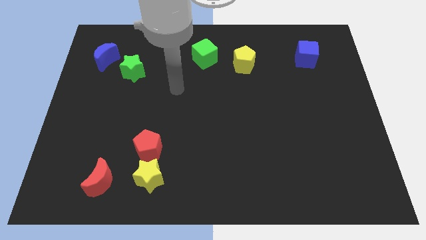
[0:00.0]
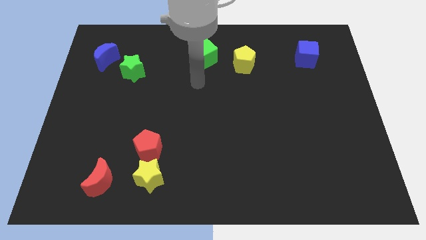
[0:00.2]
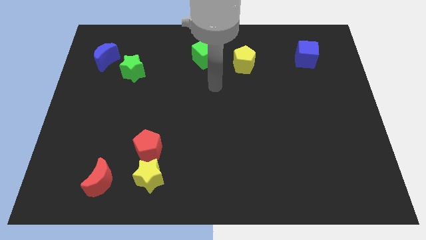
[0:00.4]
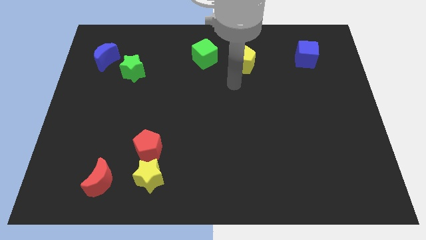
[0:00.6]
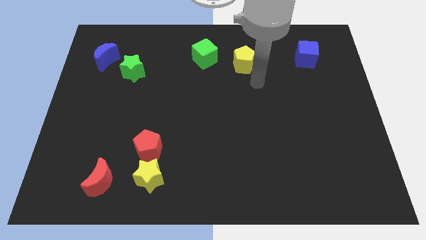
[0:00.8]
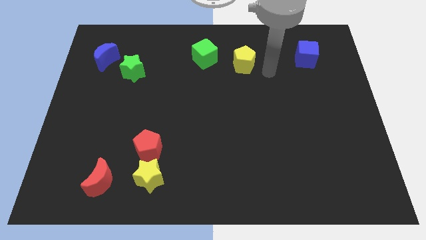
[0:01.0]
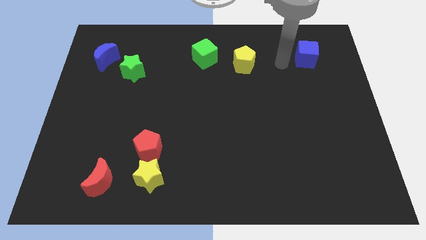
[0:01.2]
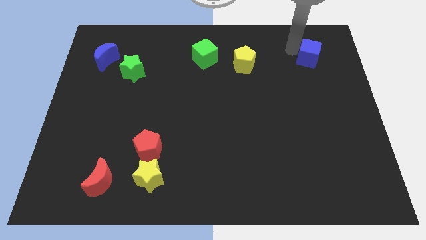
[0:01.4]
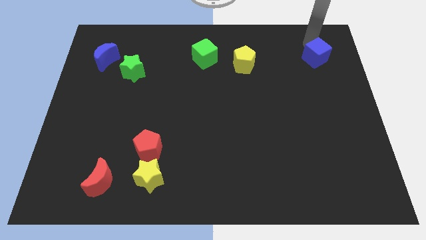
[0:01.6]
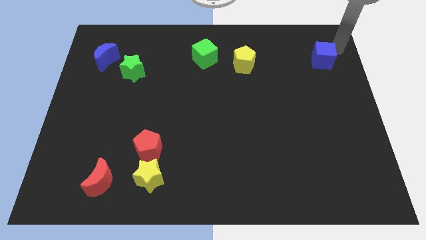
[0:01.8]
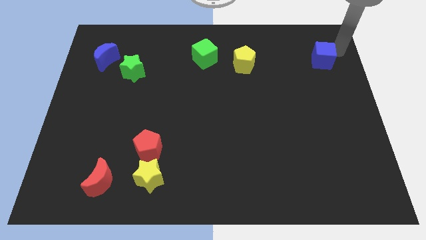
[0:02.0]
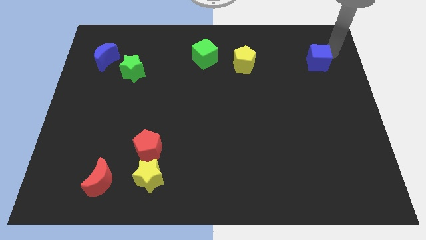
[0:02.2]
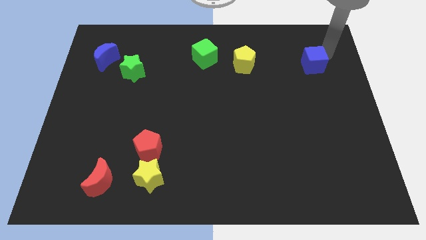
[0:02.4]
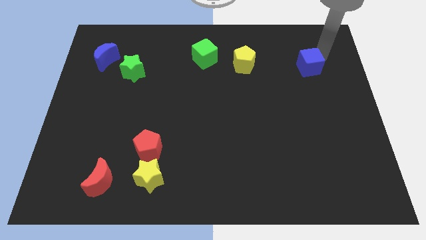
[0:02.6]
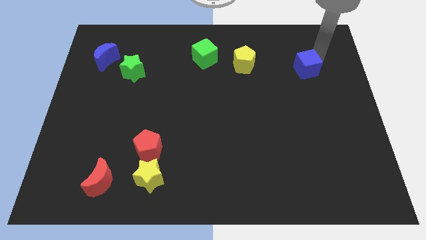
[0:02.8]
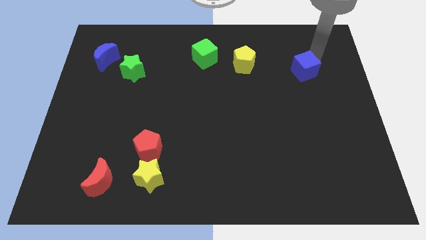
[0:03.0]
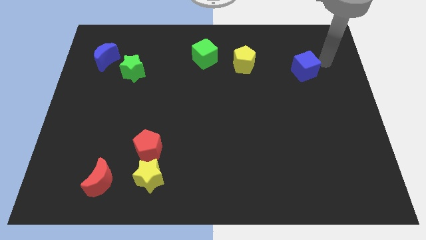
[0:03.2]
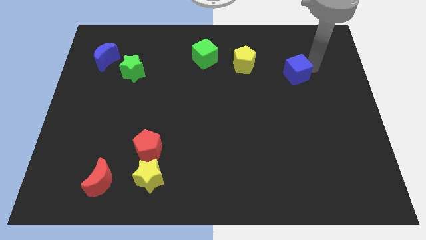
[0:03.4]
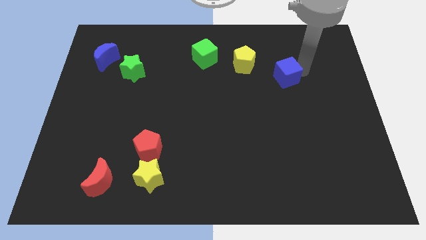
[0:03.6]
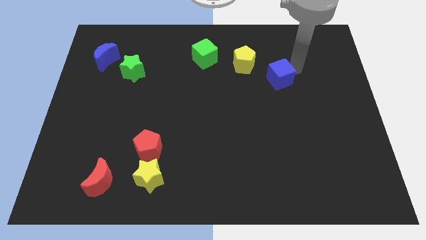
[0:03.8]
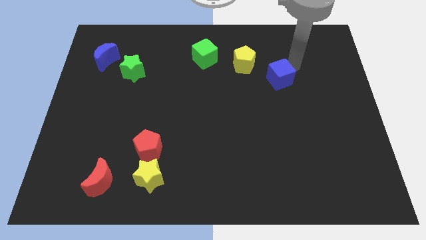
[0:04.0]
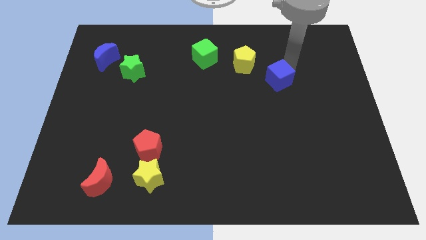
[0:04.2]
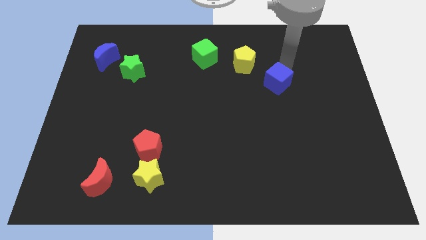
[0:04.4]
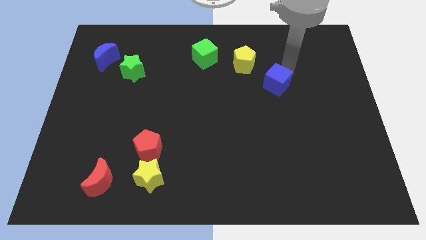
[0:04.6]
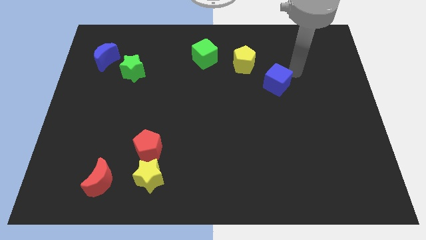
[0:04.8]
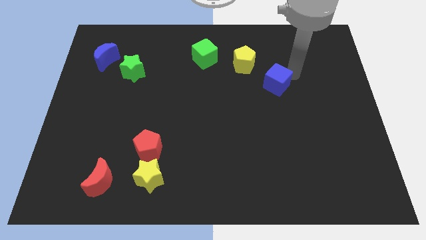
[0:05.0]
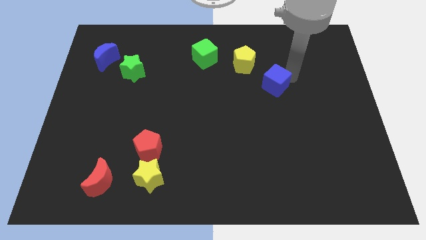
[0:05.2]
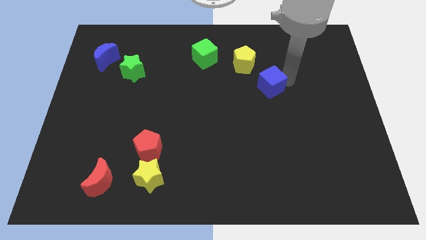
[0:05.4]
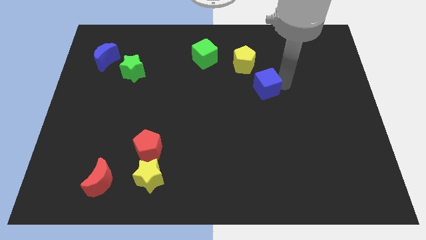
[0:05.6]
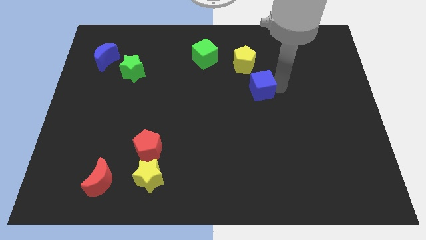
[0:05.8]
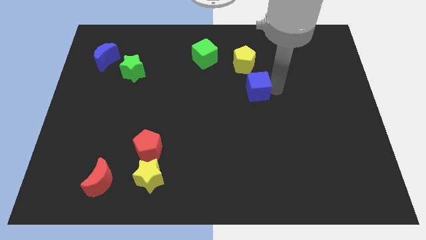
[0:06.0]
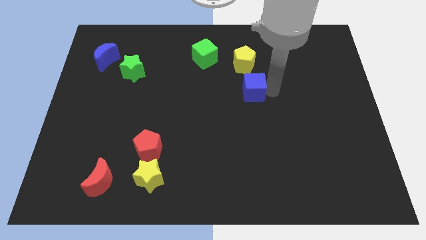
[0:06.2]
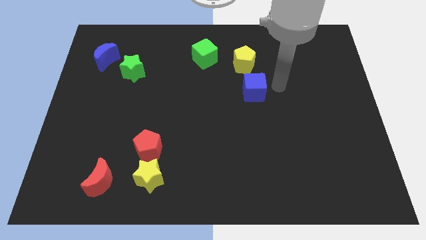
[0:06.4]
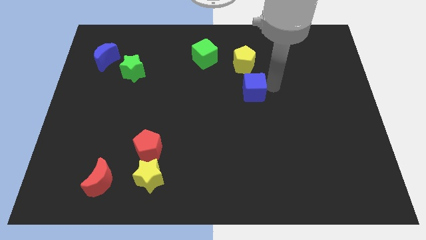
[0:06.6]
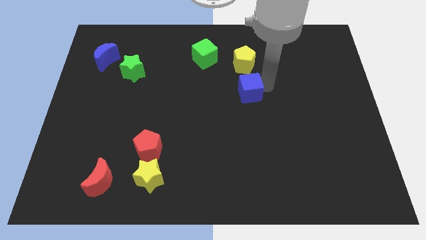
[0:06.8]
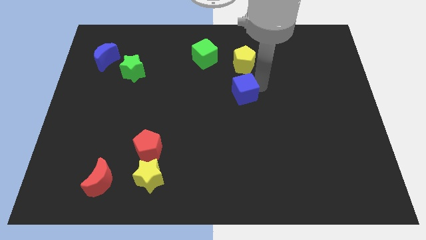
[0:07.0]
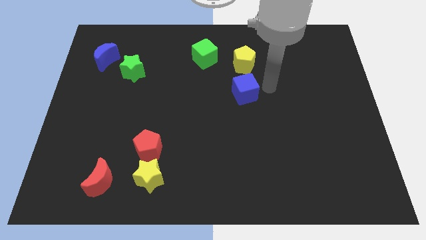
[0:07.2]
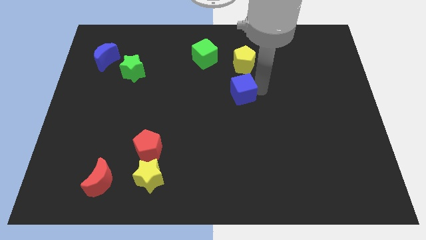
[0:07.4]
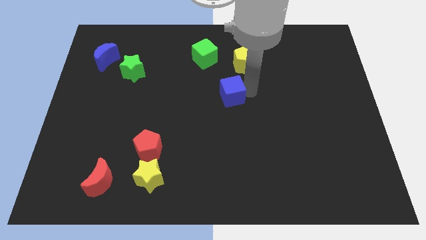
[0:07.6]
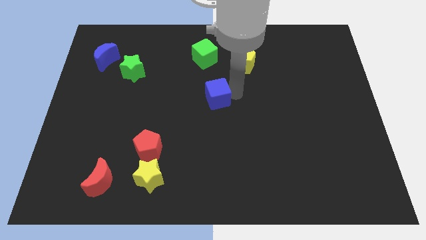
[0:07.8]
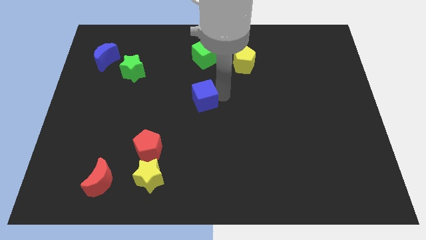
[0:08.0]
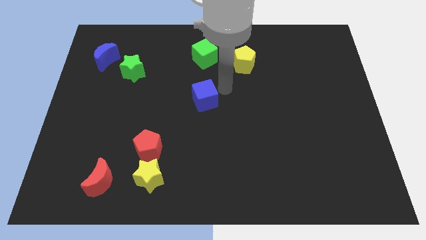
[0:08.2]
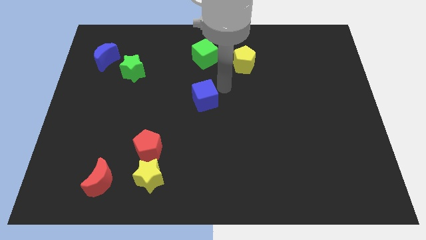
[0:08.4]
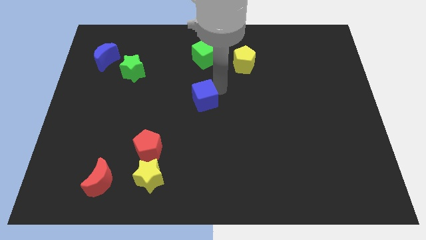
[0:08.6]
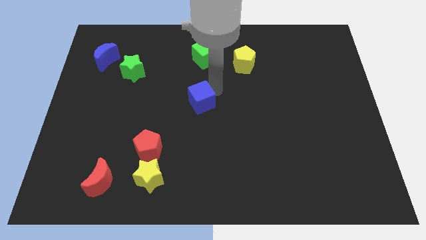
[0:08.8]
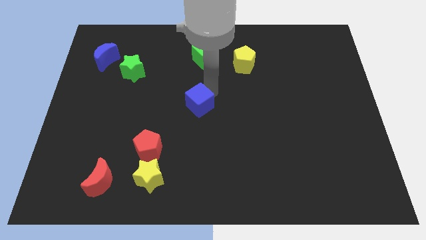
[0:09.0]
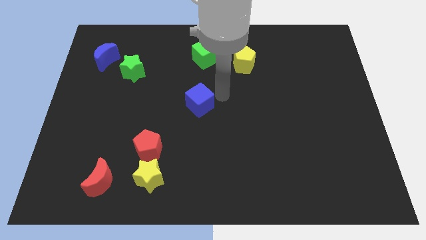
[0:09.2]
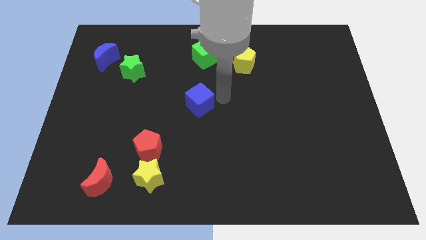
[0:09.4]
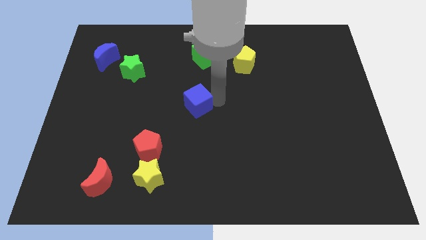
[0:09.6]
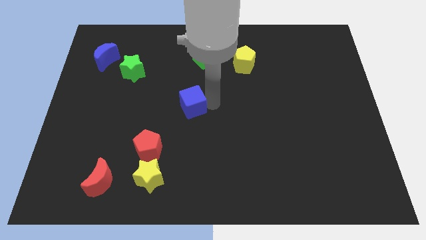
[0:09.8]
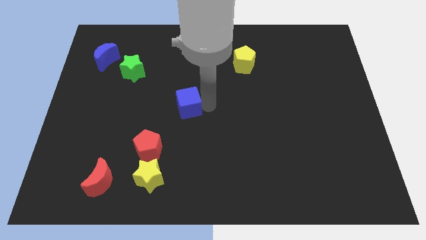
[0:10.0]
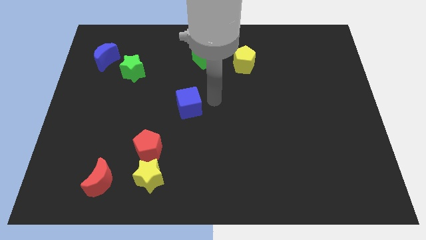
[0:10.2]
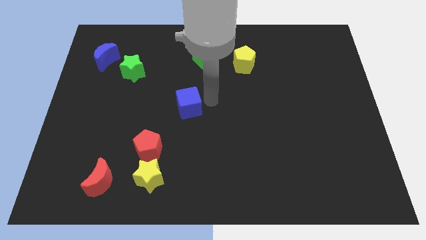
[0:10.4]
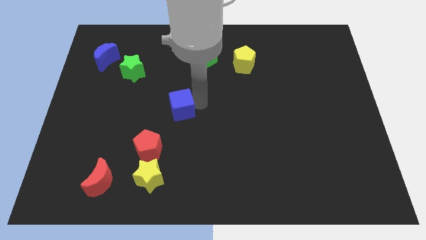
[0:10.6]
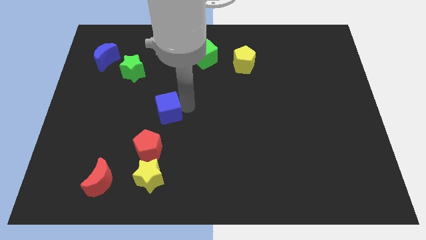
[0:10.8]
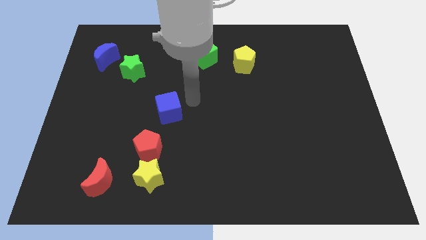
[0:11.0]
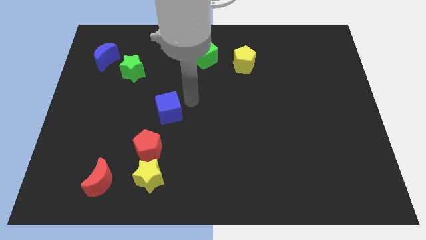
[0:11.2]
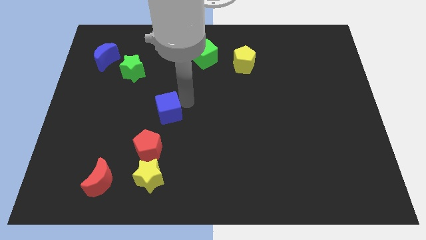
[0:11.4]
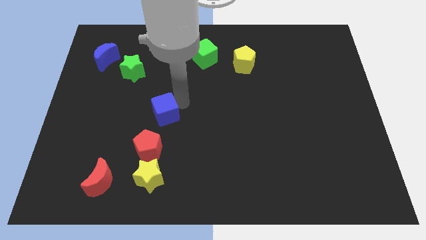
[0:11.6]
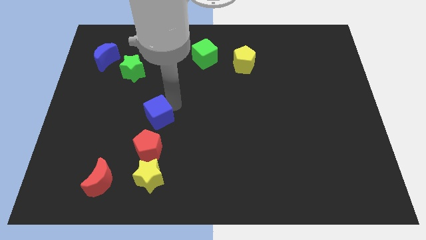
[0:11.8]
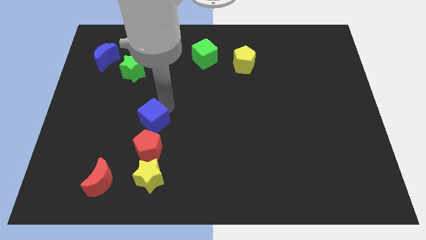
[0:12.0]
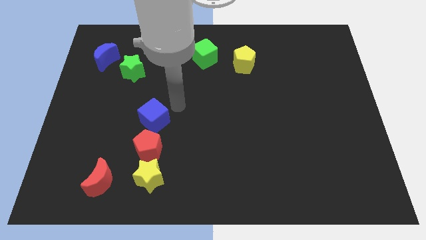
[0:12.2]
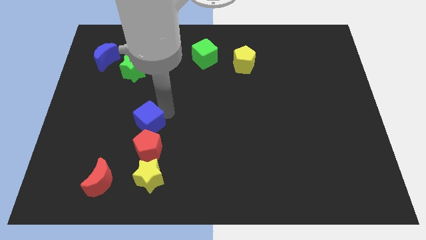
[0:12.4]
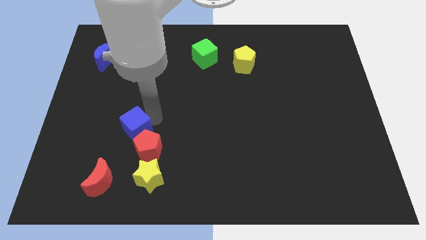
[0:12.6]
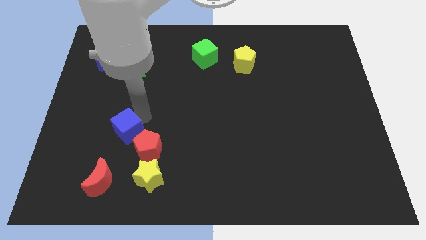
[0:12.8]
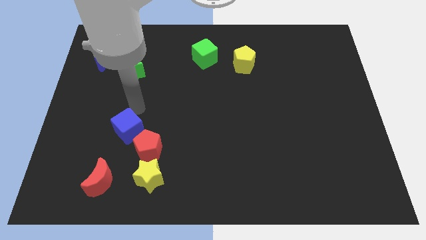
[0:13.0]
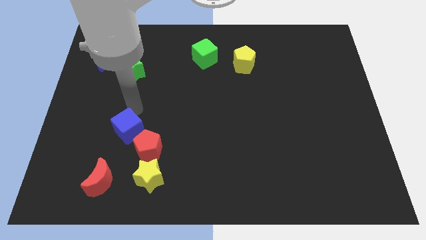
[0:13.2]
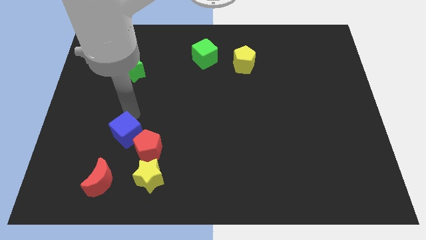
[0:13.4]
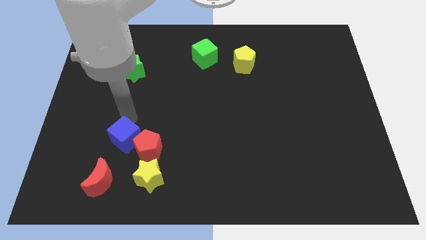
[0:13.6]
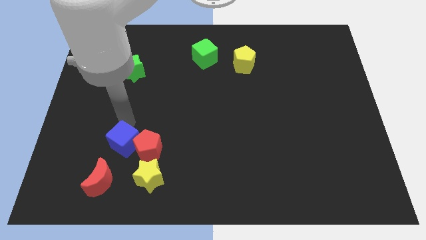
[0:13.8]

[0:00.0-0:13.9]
push the blue cube diagonally down and to the left of the red pentagon
